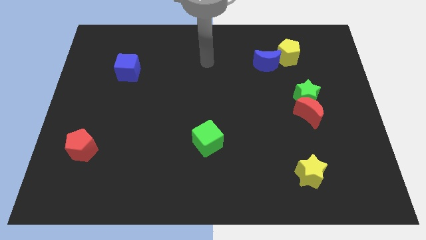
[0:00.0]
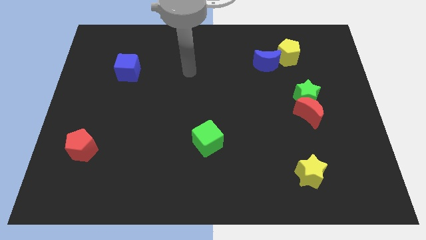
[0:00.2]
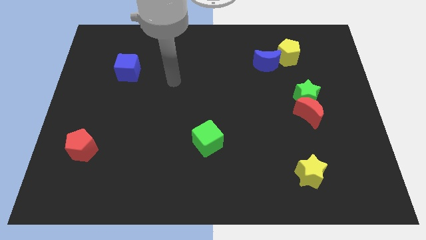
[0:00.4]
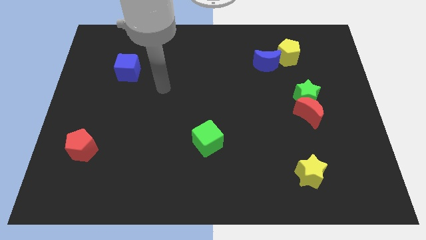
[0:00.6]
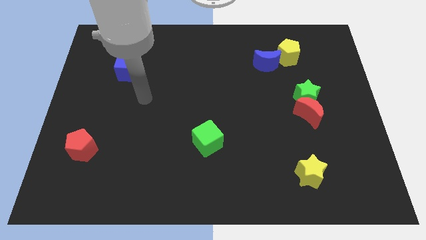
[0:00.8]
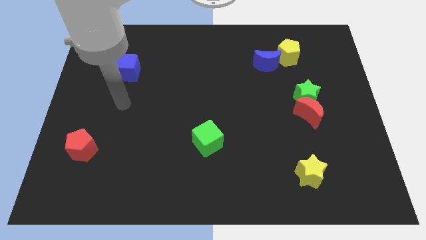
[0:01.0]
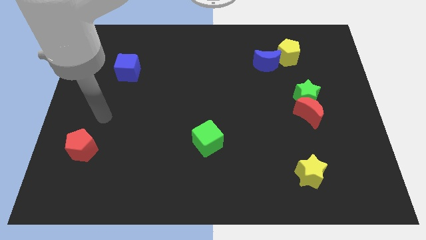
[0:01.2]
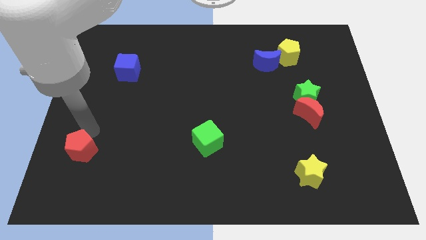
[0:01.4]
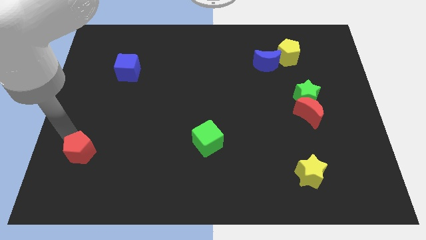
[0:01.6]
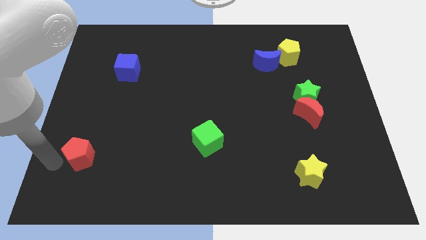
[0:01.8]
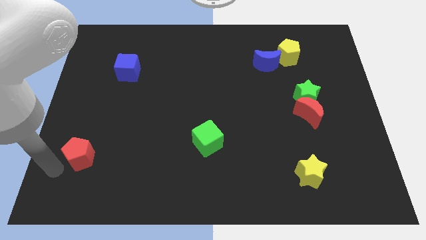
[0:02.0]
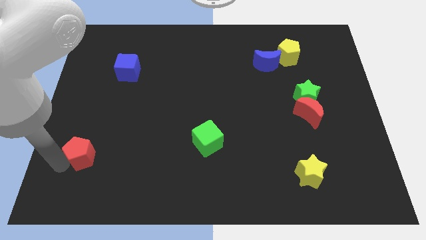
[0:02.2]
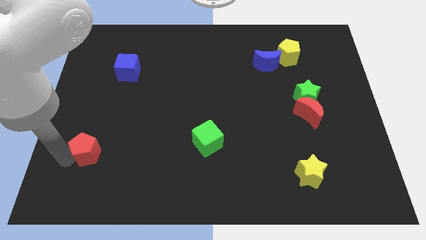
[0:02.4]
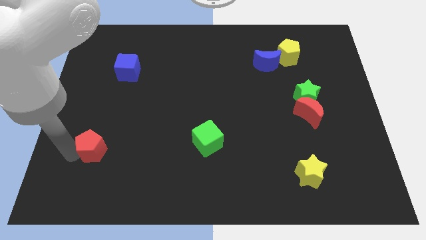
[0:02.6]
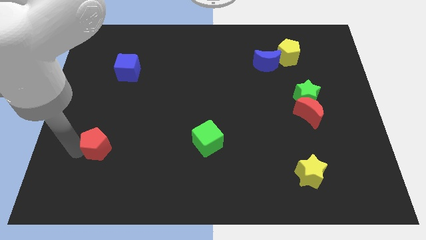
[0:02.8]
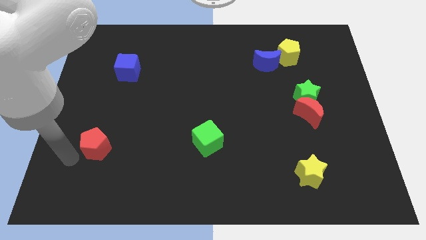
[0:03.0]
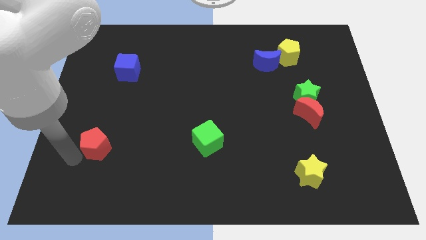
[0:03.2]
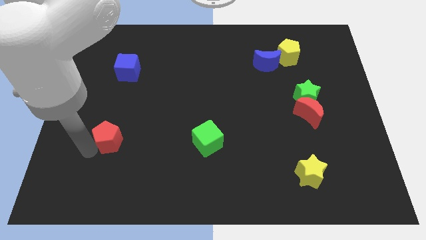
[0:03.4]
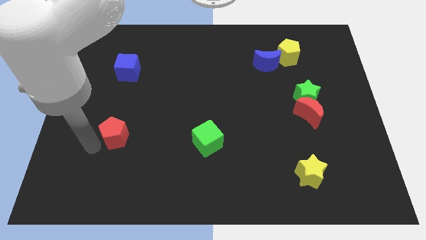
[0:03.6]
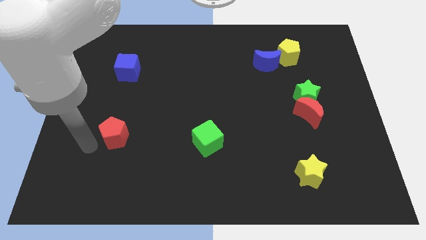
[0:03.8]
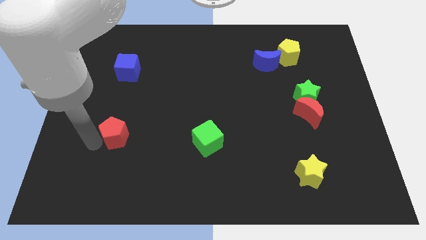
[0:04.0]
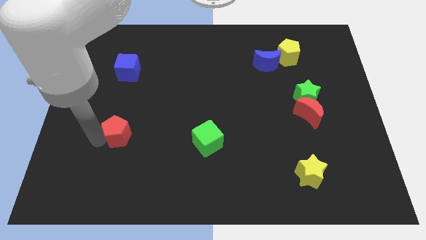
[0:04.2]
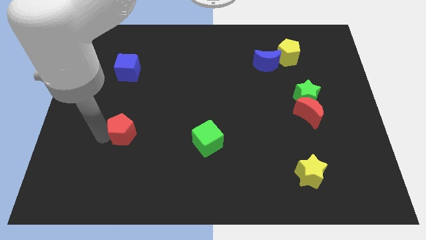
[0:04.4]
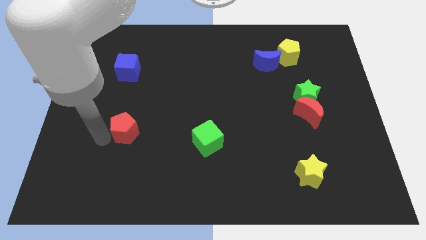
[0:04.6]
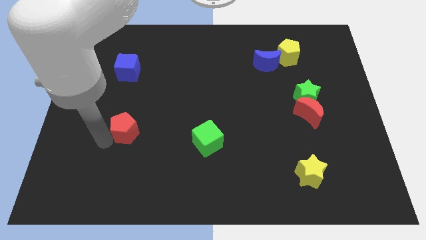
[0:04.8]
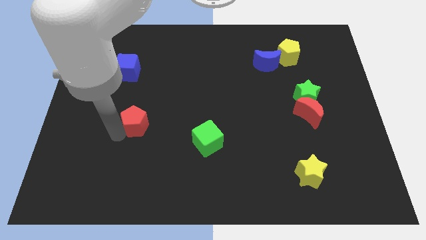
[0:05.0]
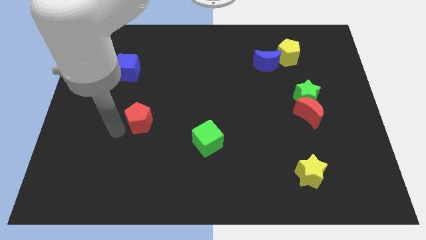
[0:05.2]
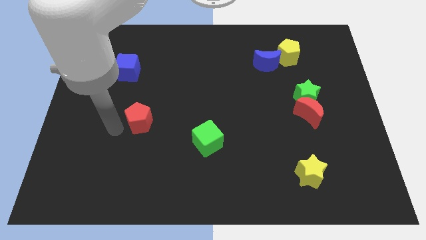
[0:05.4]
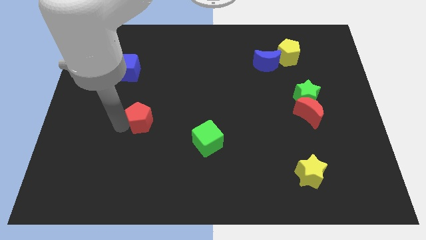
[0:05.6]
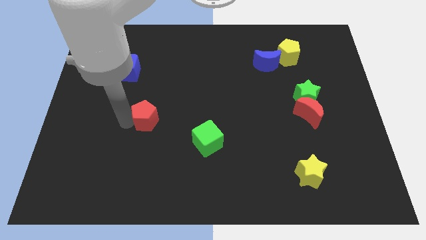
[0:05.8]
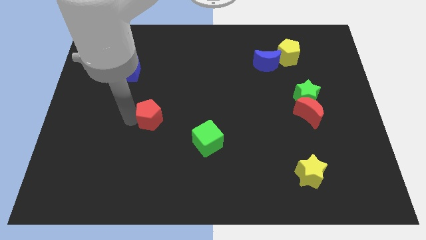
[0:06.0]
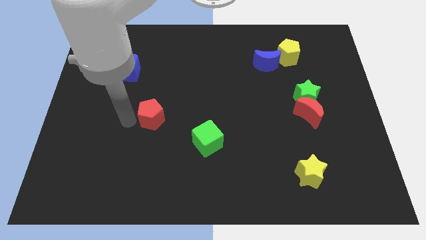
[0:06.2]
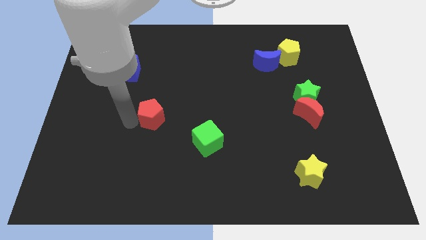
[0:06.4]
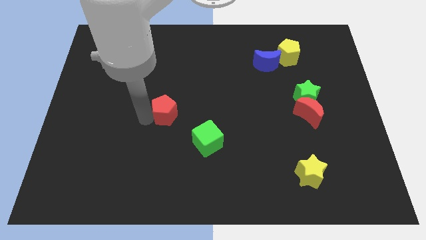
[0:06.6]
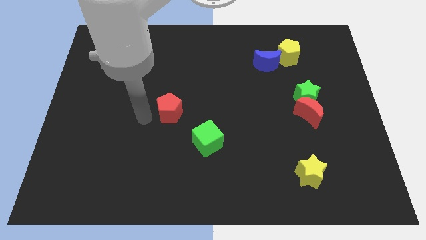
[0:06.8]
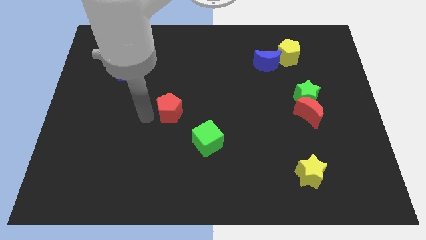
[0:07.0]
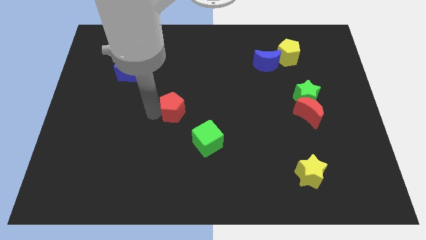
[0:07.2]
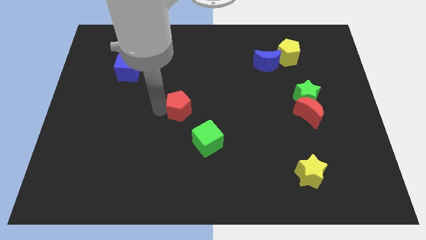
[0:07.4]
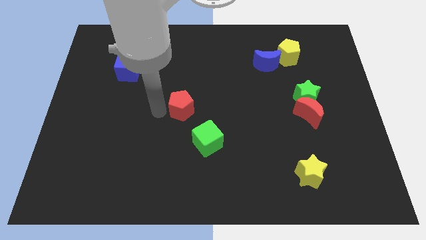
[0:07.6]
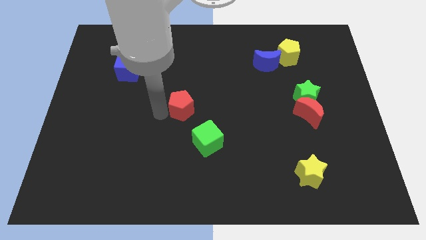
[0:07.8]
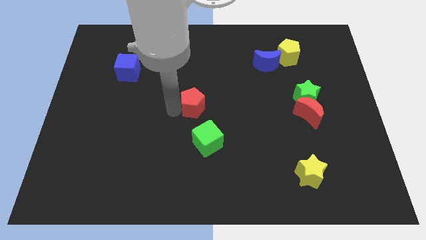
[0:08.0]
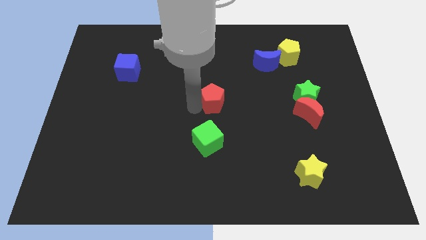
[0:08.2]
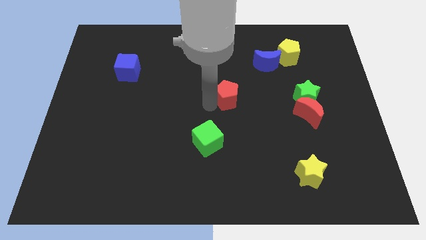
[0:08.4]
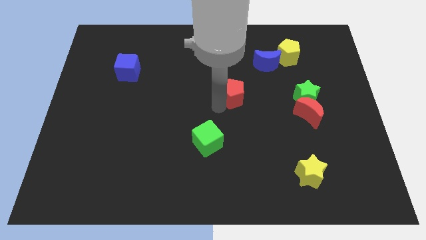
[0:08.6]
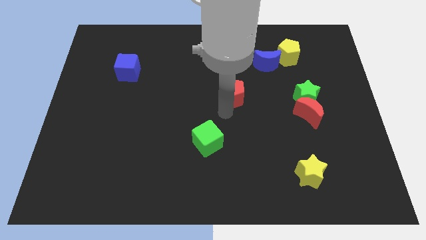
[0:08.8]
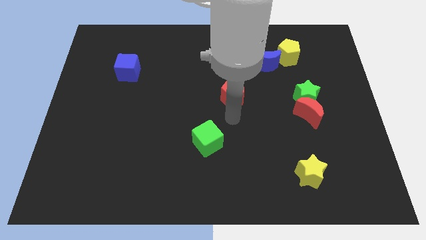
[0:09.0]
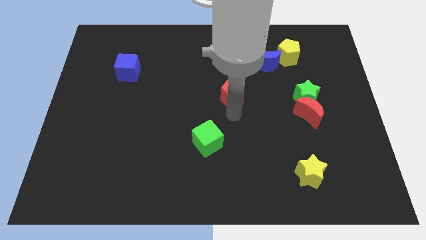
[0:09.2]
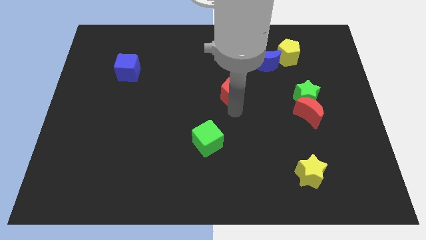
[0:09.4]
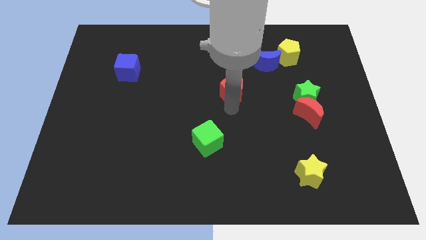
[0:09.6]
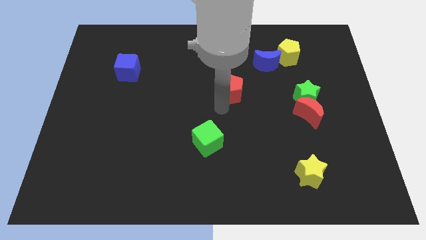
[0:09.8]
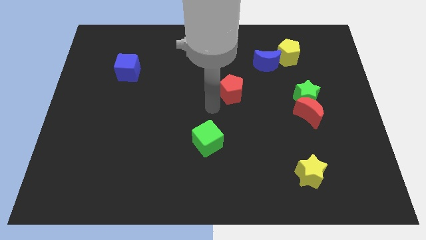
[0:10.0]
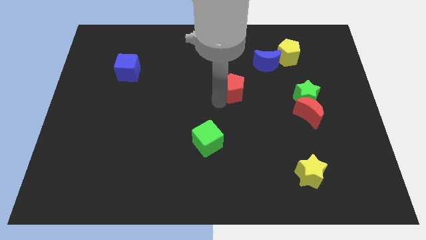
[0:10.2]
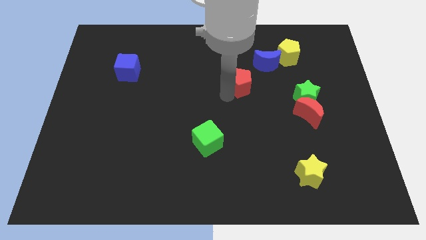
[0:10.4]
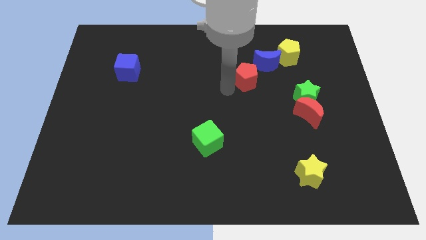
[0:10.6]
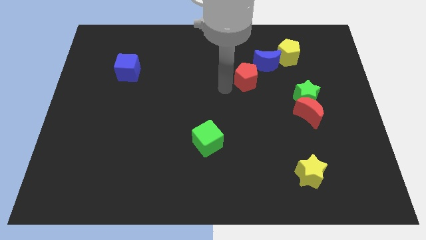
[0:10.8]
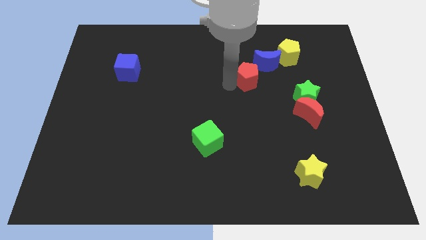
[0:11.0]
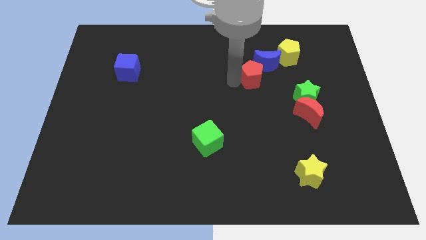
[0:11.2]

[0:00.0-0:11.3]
move the red pentagon diagonally down and to the left of the yellow pentagon
